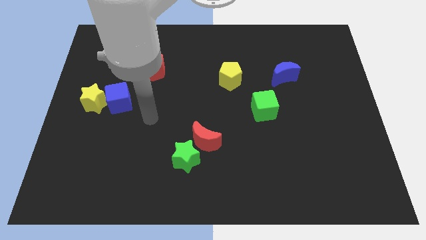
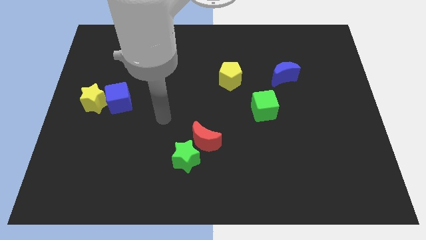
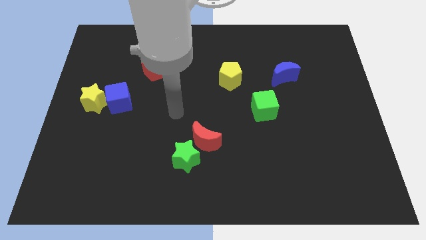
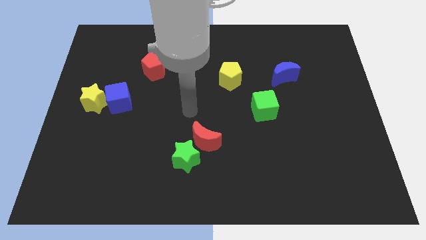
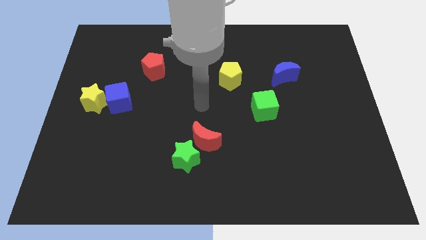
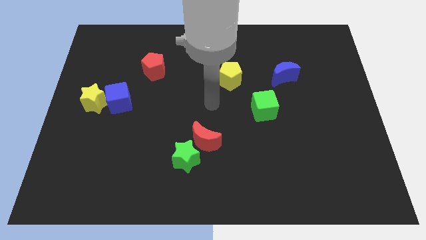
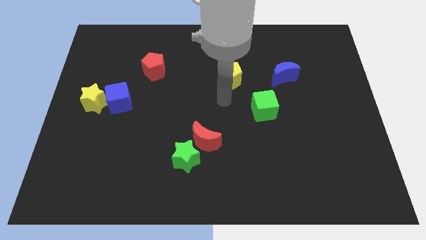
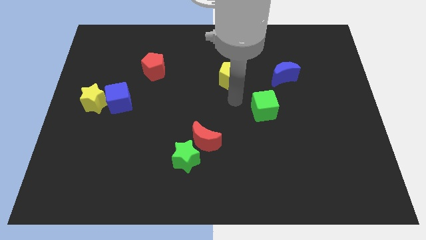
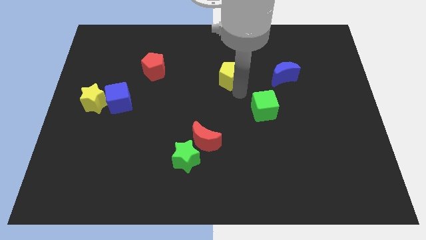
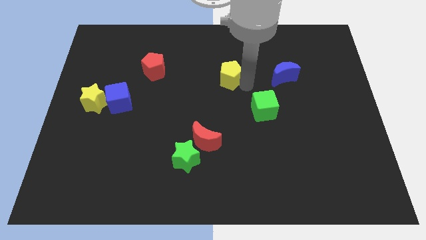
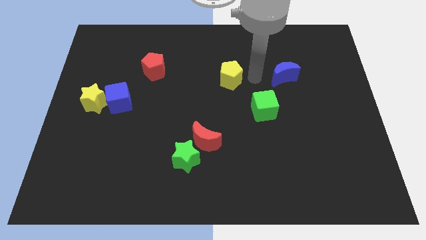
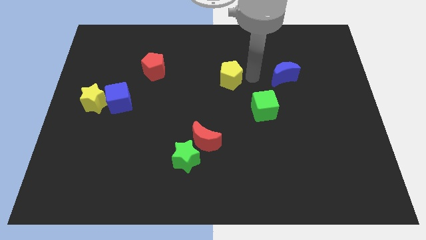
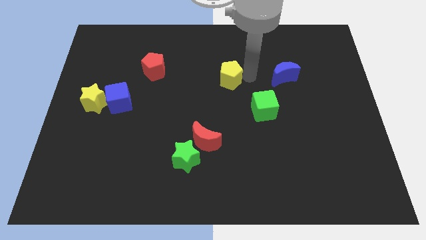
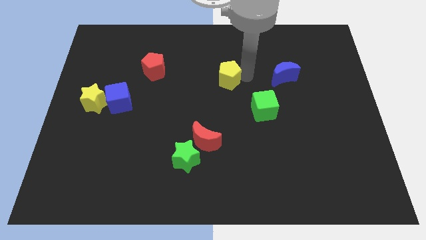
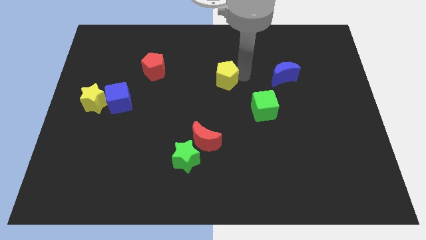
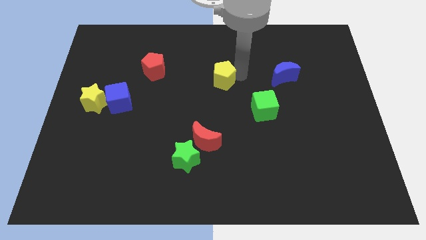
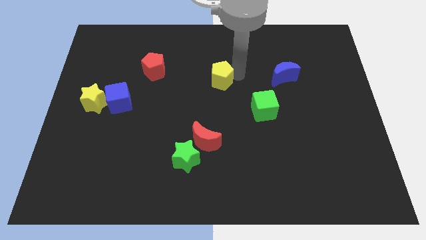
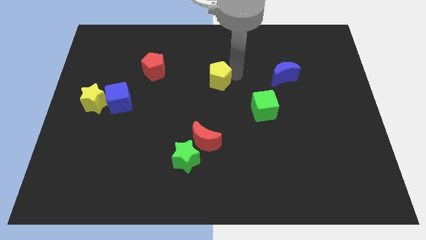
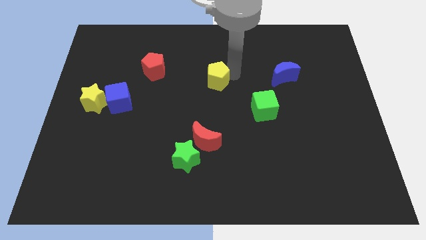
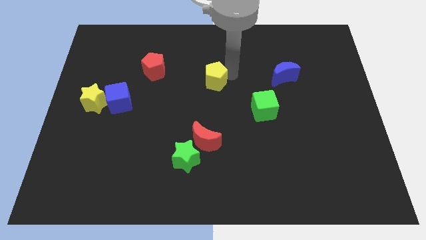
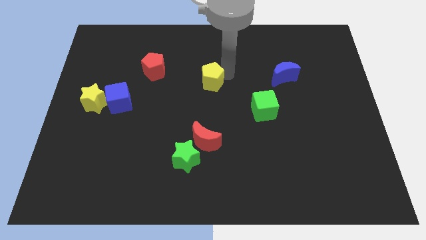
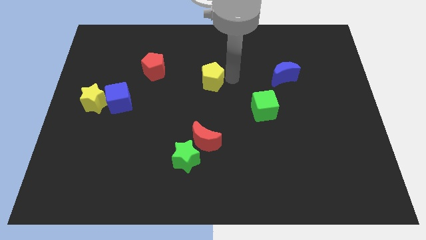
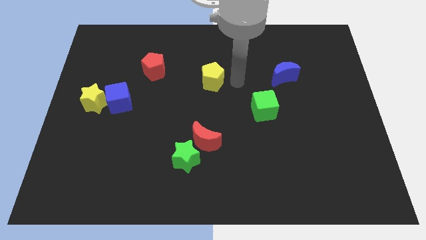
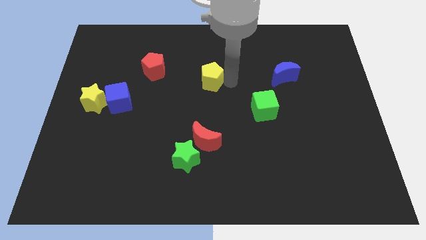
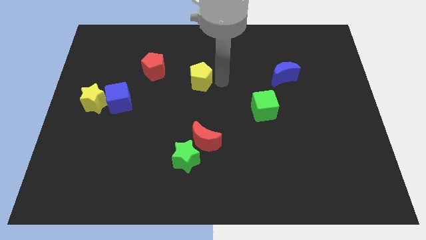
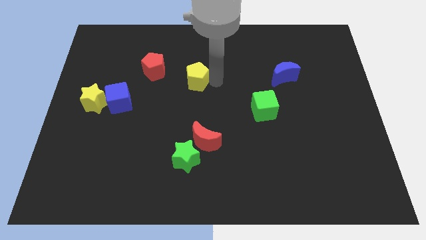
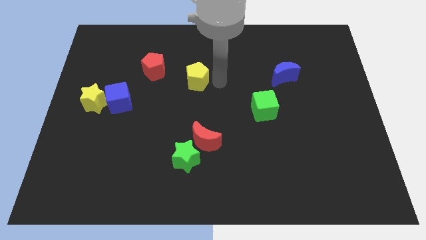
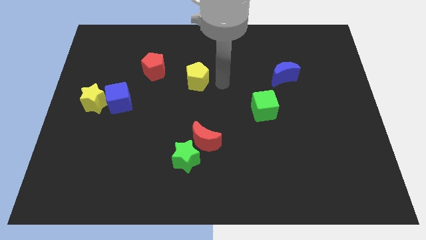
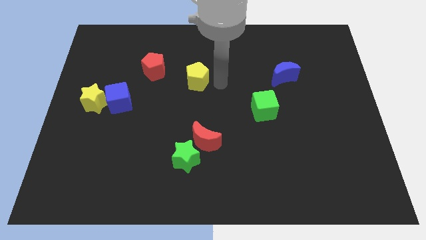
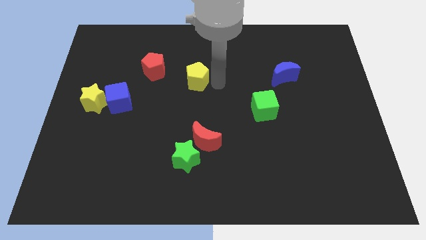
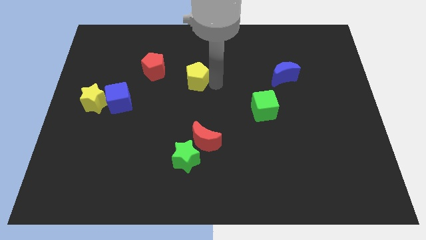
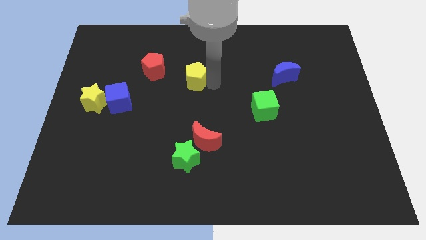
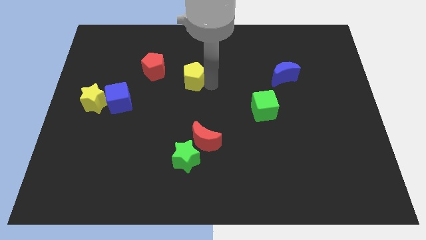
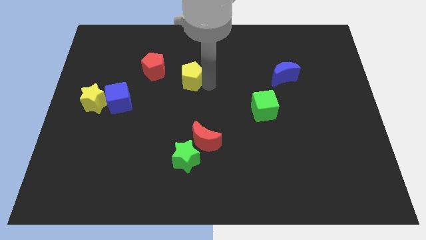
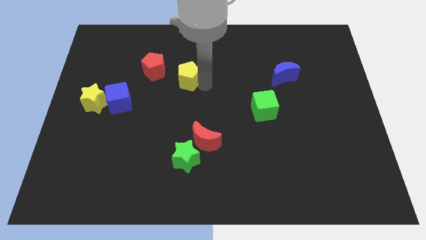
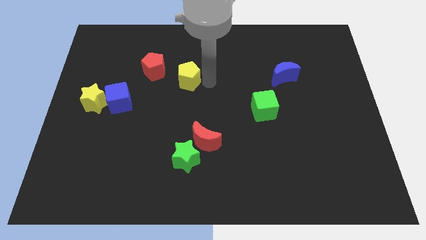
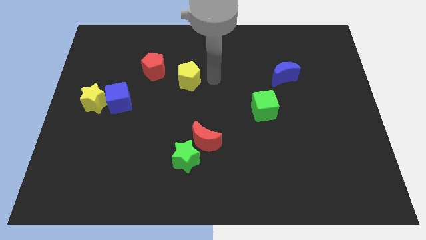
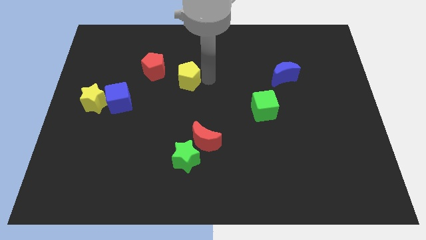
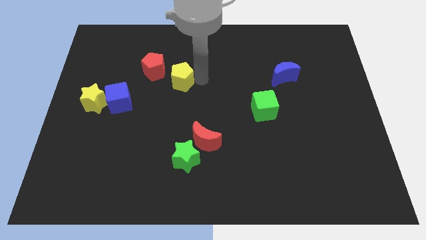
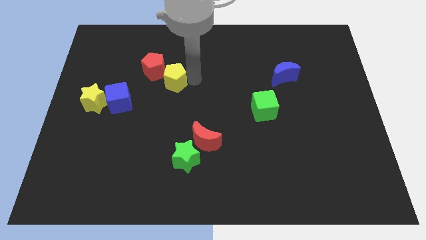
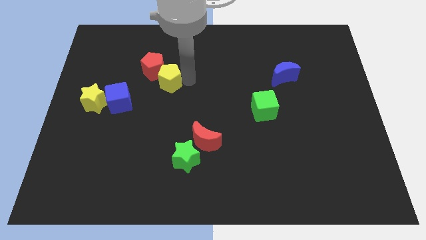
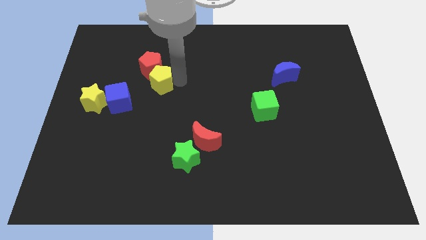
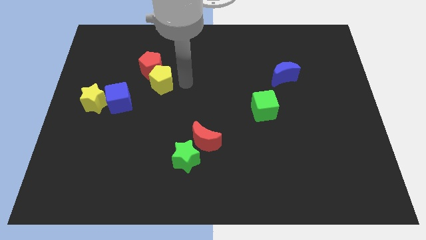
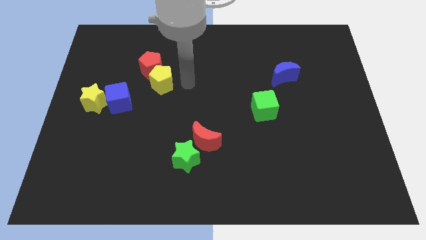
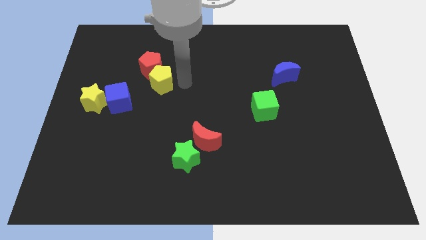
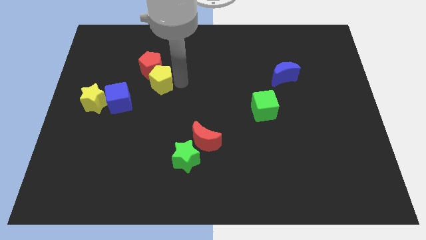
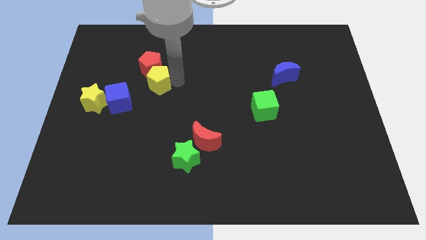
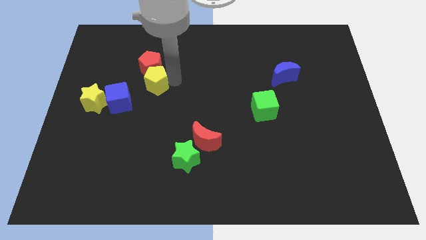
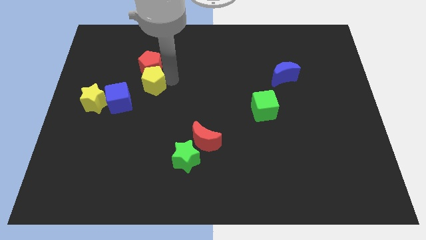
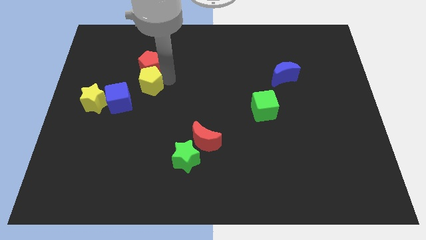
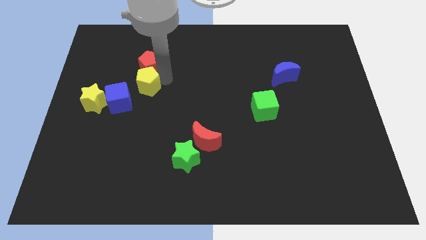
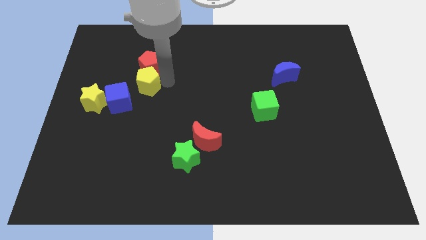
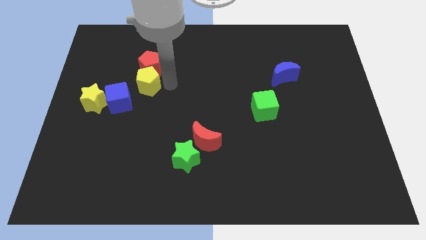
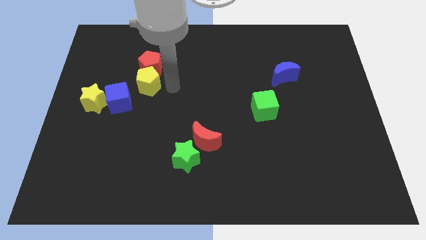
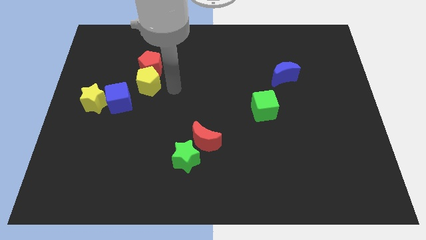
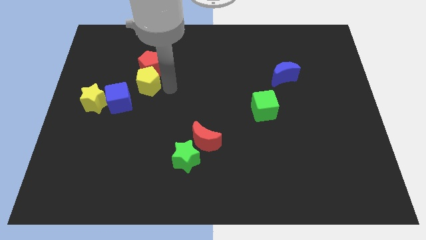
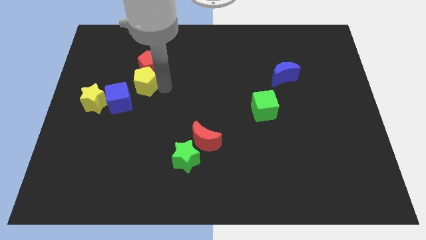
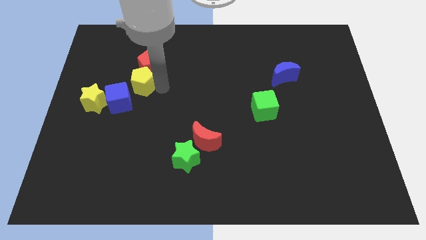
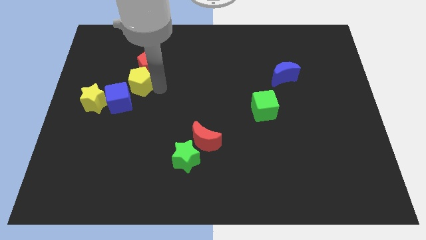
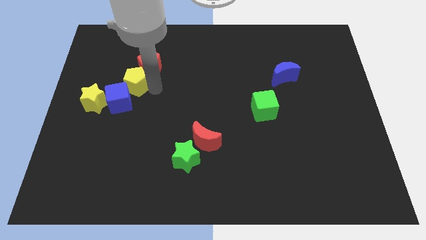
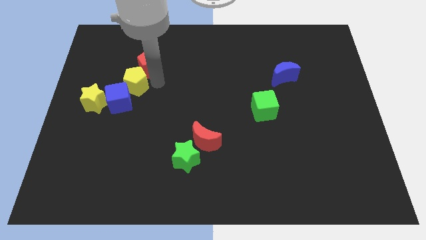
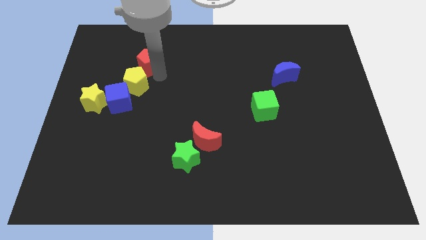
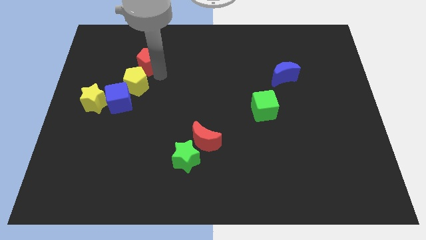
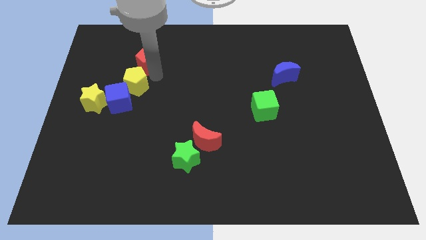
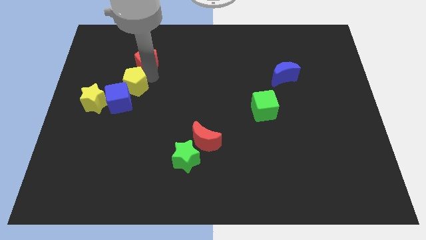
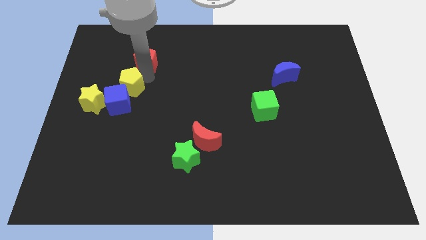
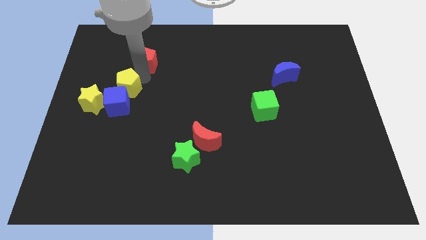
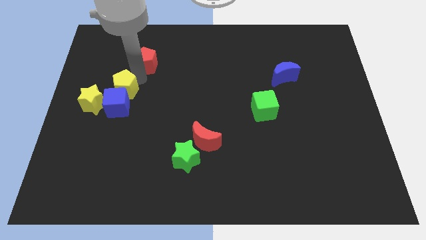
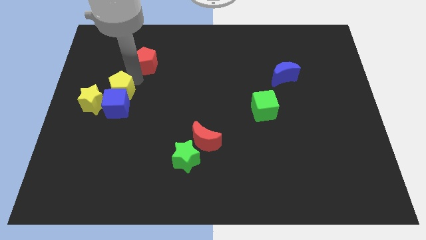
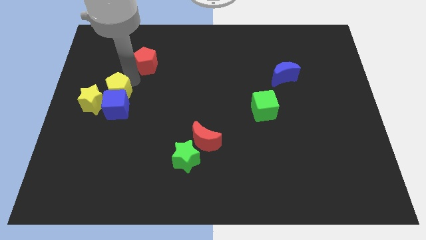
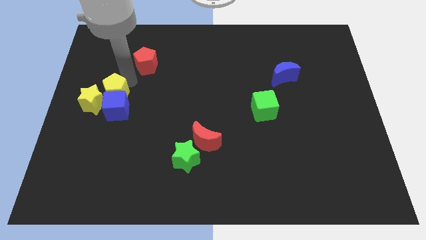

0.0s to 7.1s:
slide the yellow pentagon to the yellow star

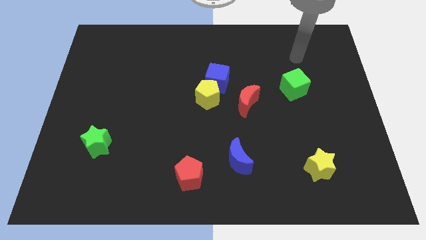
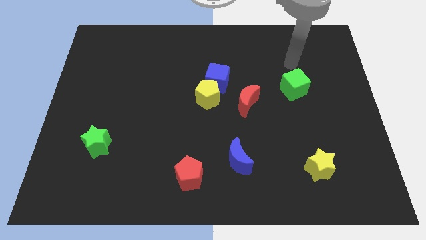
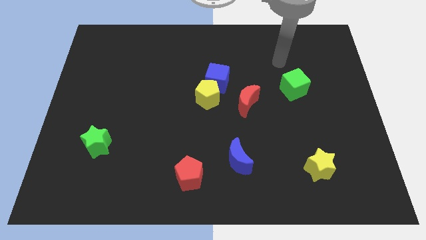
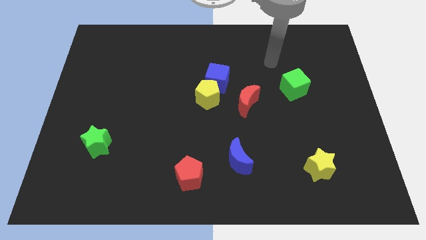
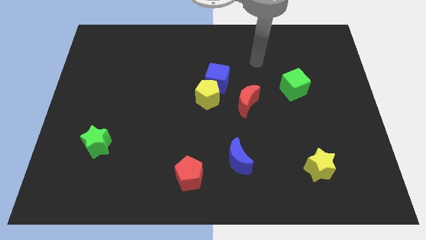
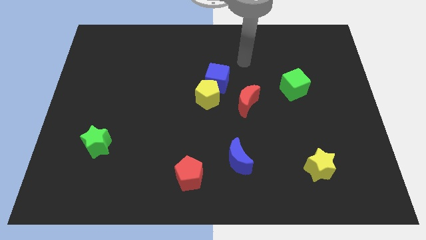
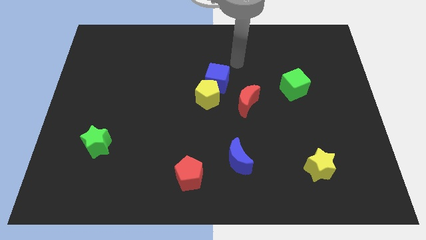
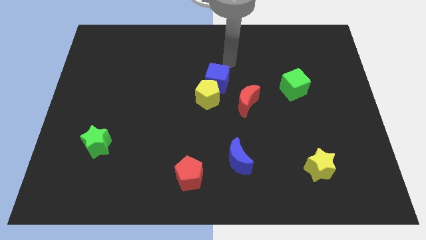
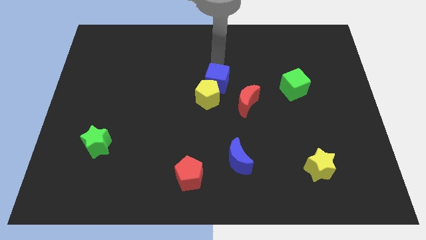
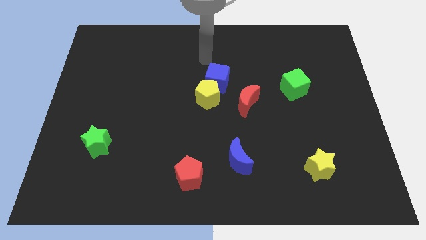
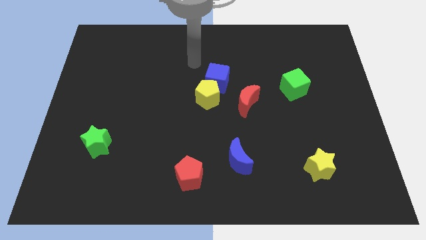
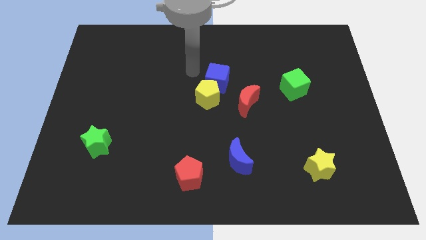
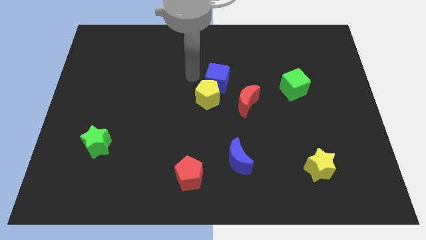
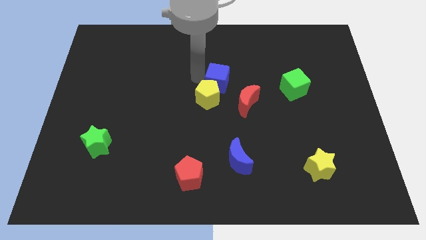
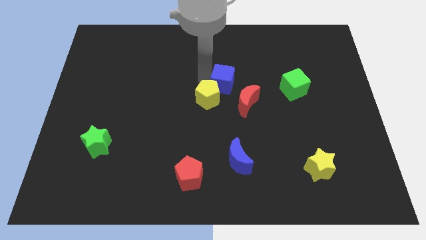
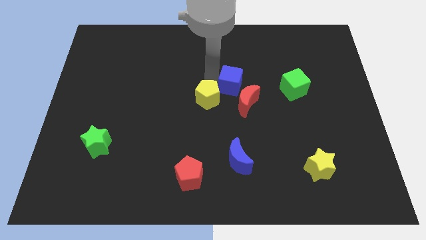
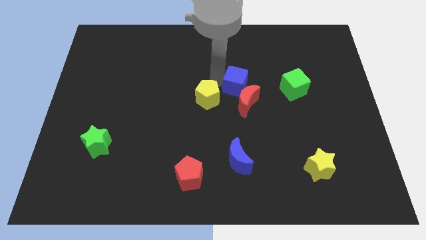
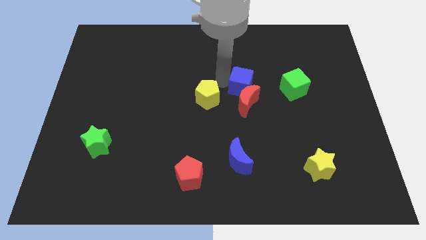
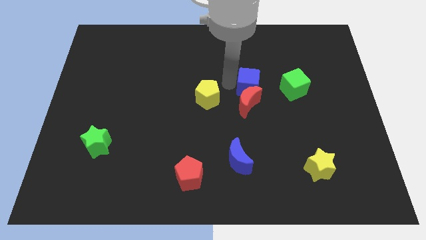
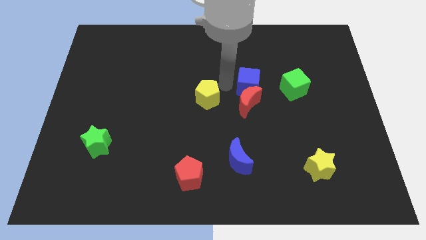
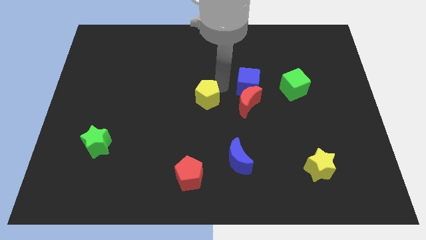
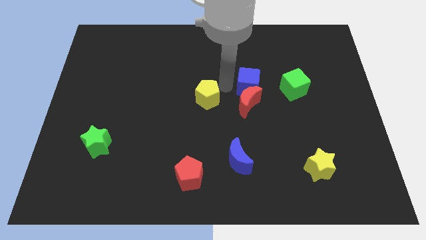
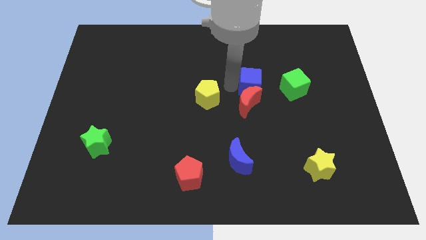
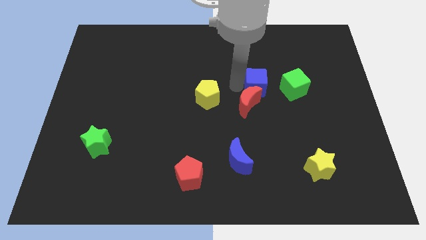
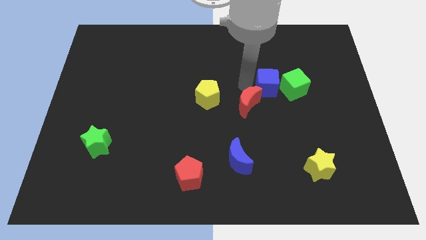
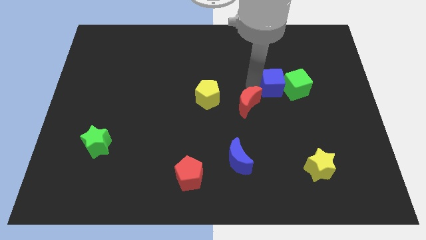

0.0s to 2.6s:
slide the blue cube next to the green cube
